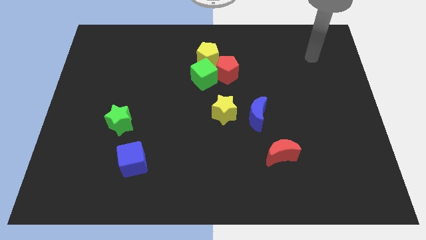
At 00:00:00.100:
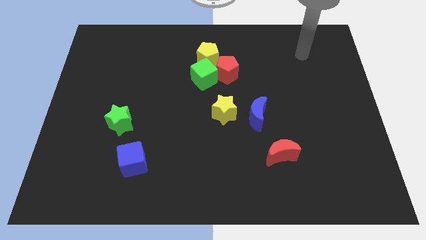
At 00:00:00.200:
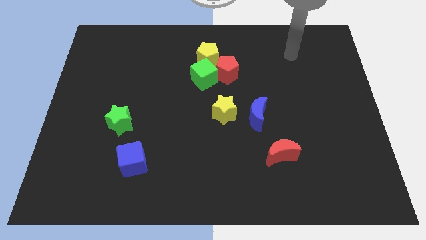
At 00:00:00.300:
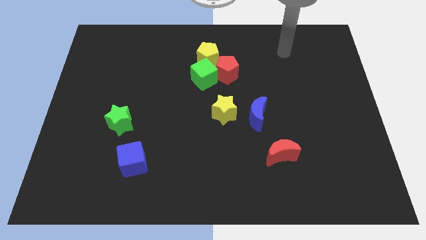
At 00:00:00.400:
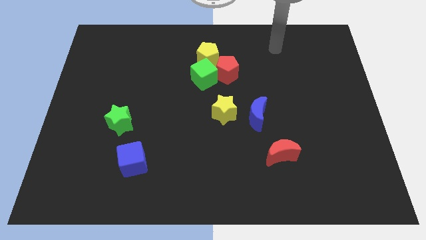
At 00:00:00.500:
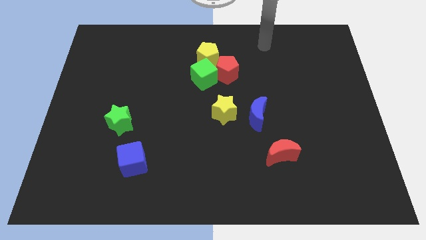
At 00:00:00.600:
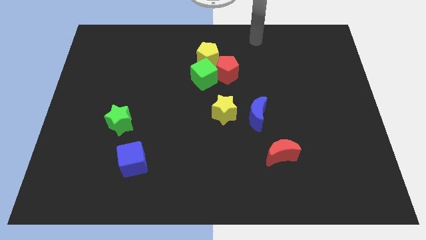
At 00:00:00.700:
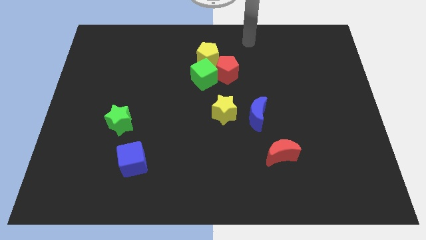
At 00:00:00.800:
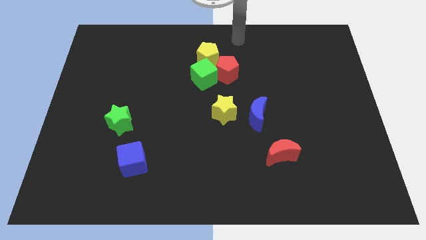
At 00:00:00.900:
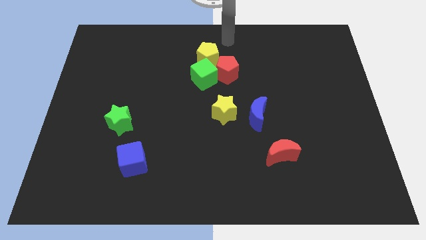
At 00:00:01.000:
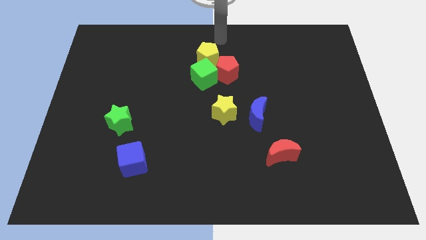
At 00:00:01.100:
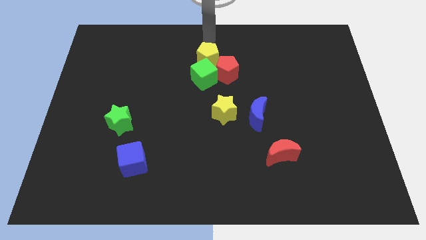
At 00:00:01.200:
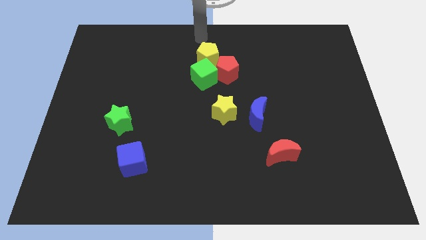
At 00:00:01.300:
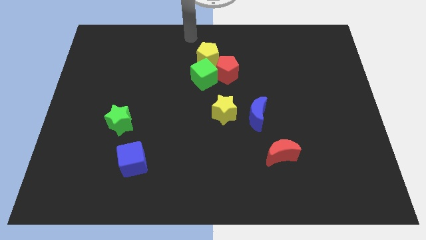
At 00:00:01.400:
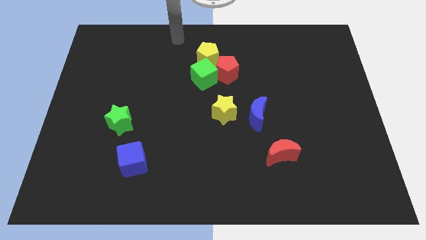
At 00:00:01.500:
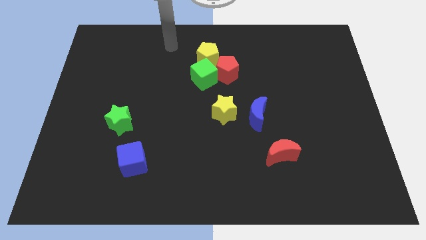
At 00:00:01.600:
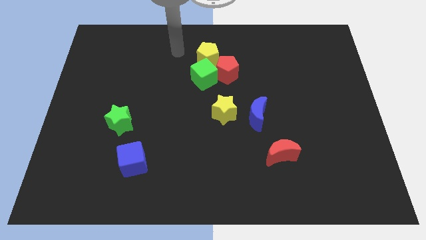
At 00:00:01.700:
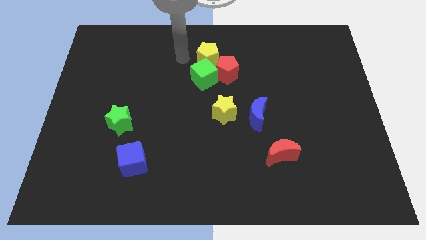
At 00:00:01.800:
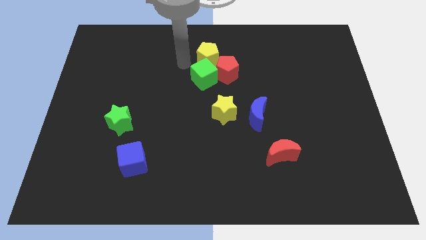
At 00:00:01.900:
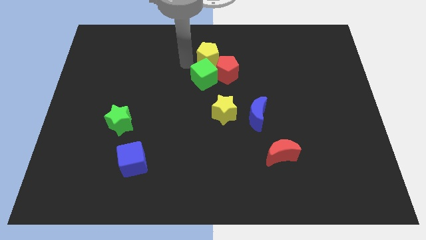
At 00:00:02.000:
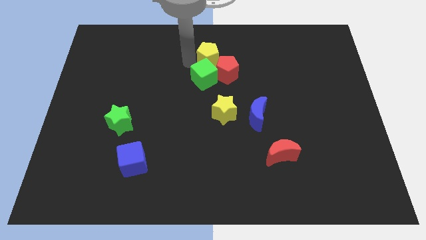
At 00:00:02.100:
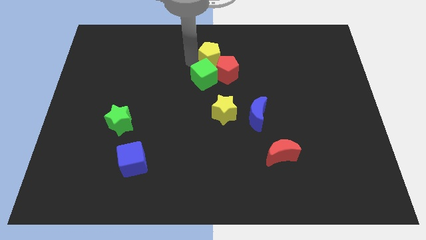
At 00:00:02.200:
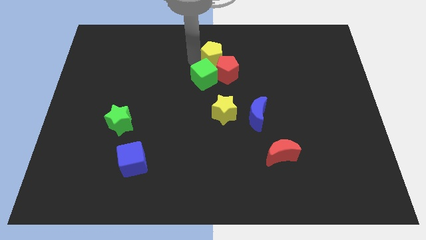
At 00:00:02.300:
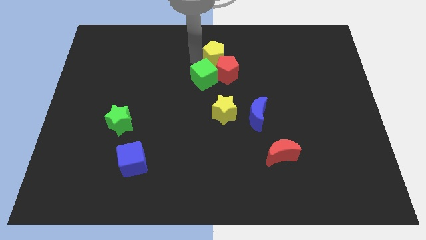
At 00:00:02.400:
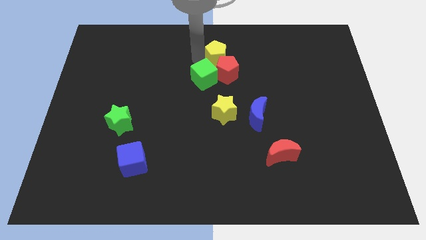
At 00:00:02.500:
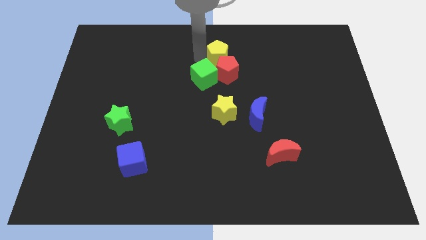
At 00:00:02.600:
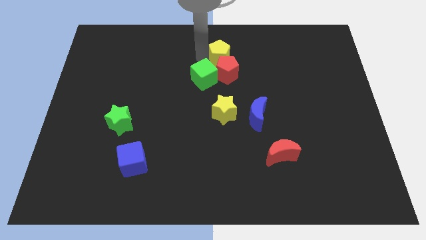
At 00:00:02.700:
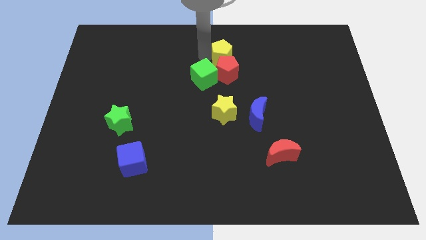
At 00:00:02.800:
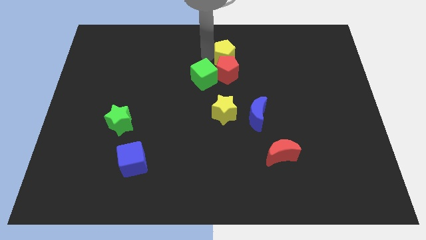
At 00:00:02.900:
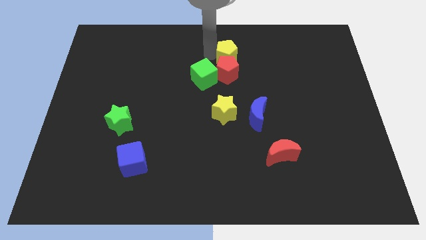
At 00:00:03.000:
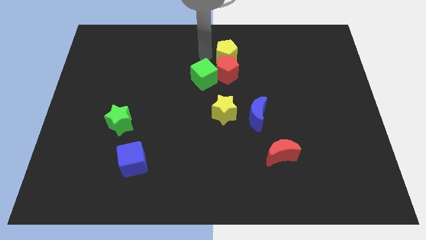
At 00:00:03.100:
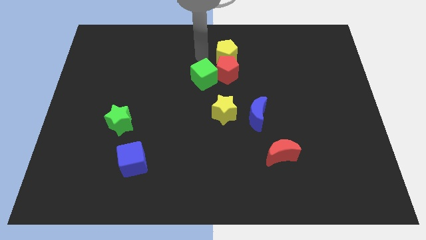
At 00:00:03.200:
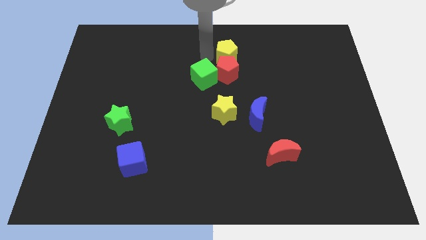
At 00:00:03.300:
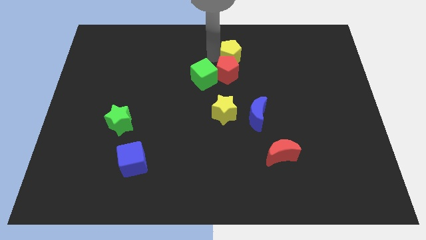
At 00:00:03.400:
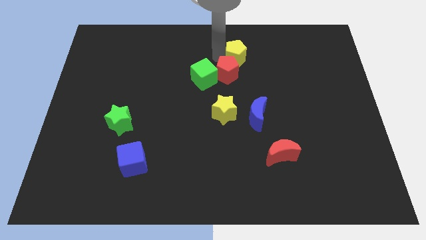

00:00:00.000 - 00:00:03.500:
slide the yellow pentagon a bit right

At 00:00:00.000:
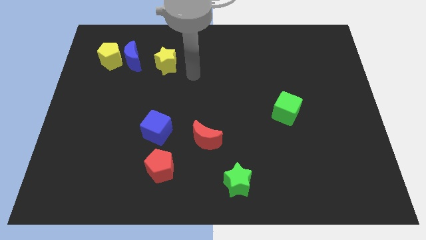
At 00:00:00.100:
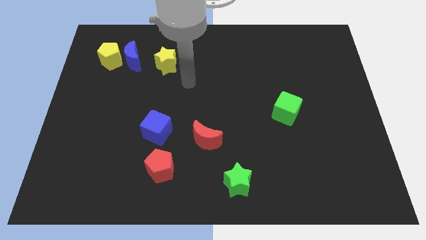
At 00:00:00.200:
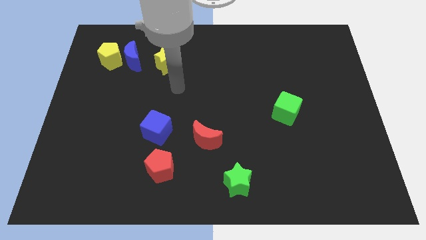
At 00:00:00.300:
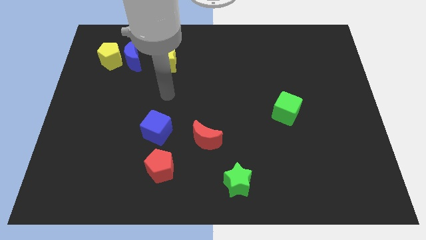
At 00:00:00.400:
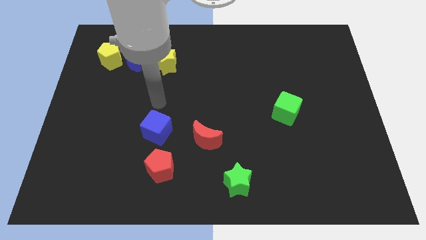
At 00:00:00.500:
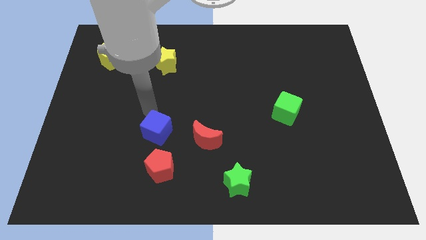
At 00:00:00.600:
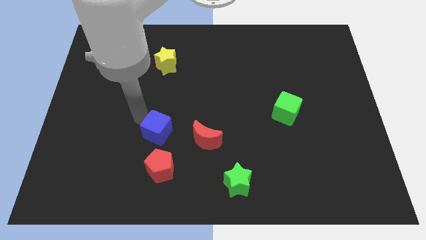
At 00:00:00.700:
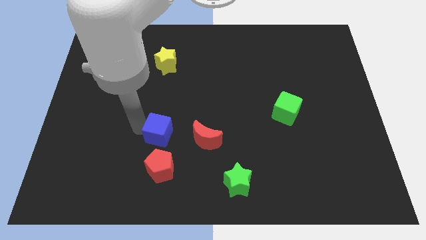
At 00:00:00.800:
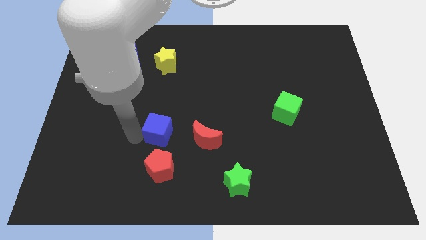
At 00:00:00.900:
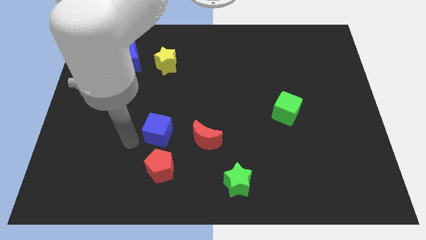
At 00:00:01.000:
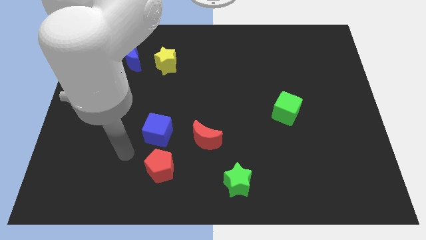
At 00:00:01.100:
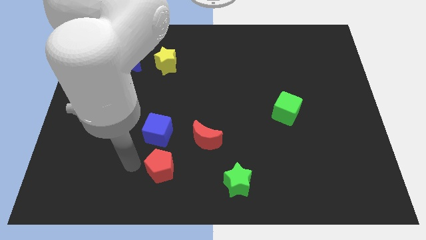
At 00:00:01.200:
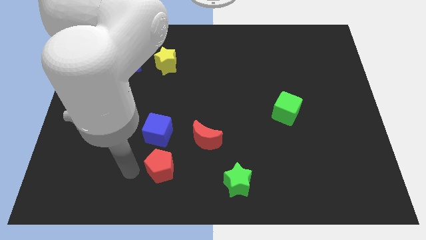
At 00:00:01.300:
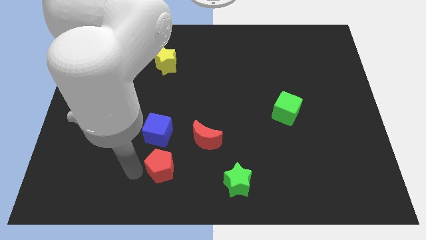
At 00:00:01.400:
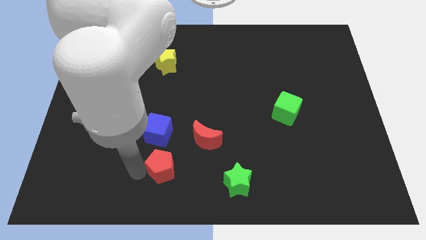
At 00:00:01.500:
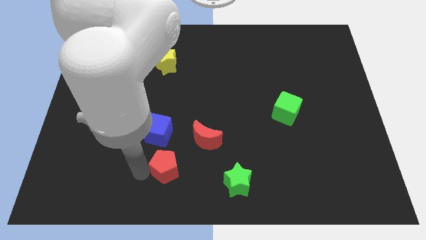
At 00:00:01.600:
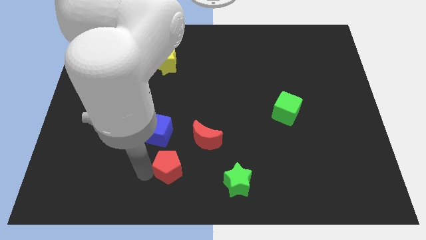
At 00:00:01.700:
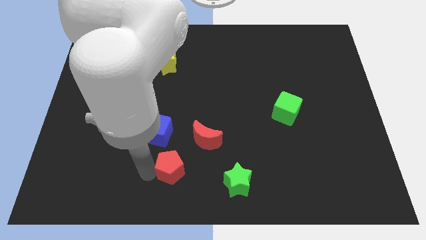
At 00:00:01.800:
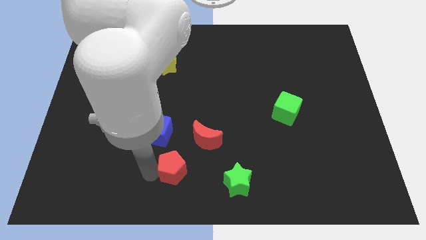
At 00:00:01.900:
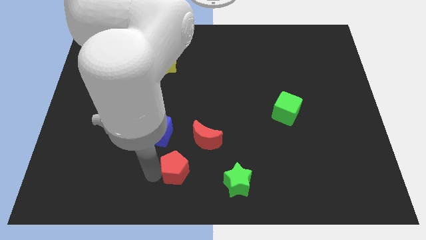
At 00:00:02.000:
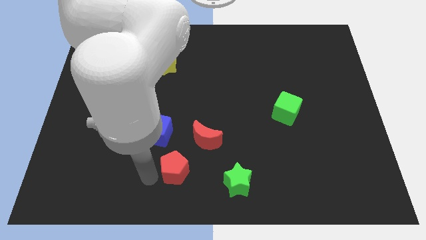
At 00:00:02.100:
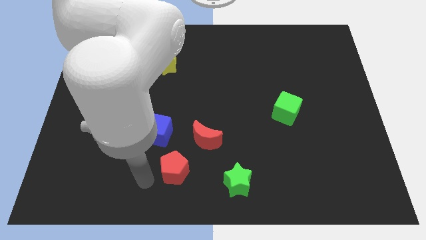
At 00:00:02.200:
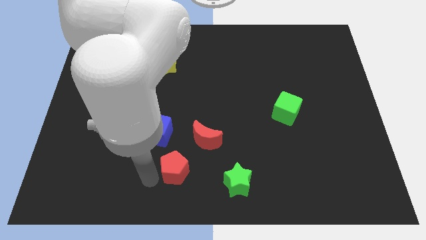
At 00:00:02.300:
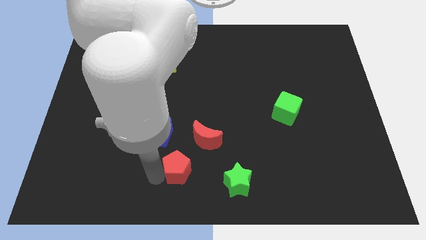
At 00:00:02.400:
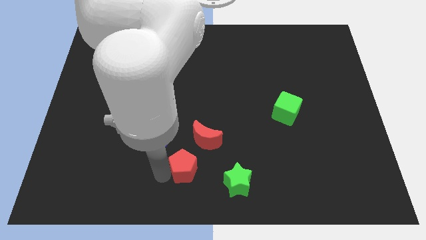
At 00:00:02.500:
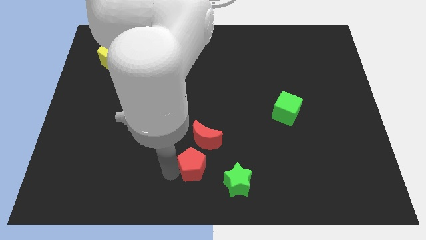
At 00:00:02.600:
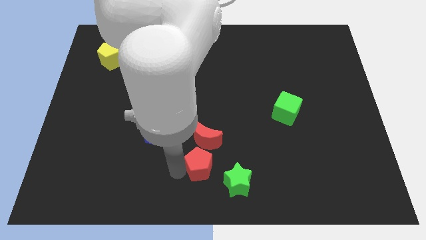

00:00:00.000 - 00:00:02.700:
slightly move the red pentagon to the right

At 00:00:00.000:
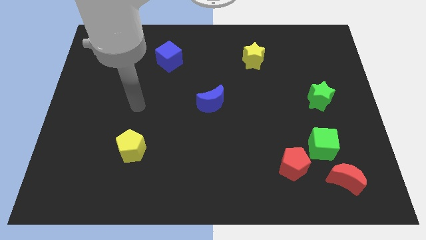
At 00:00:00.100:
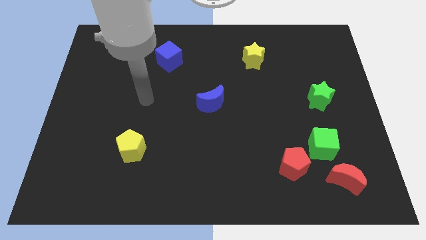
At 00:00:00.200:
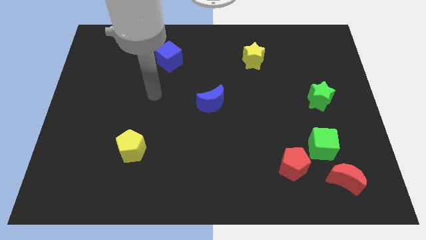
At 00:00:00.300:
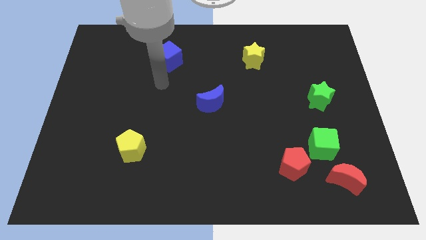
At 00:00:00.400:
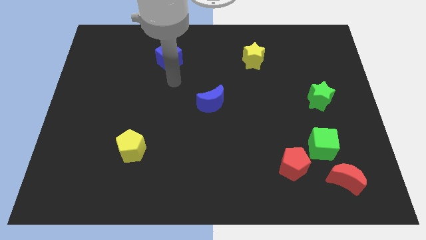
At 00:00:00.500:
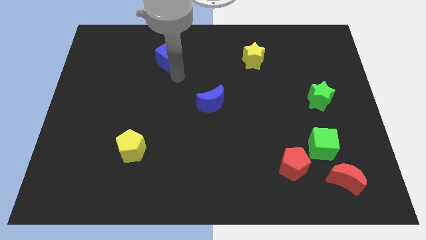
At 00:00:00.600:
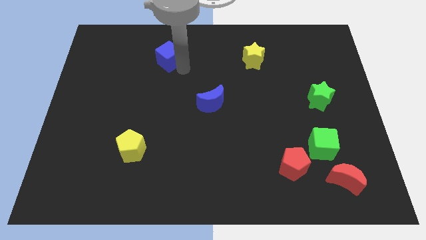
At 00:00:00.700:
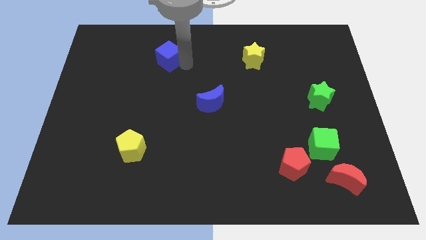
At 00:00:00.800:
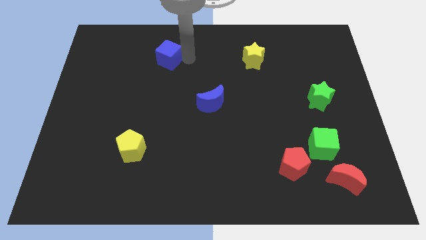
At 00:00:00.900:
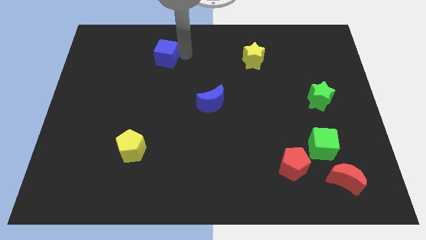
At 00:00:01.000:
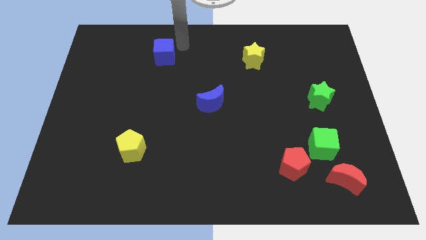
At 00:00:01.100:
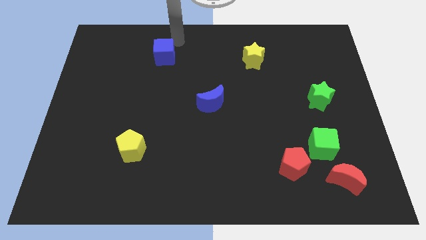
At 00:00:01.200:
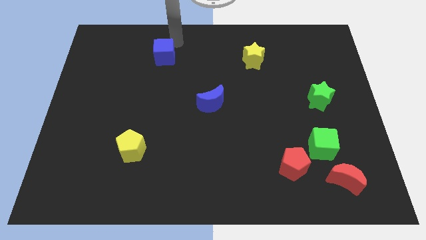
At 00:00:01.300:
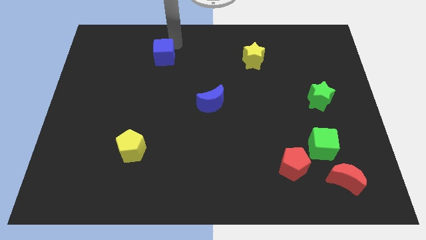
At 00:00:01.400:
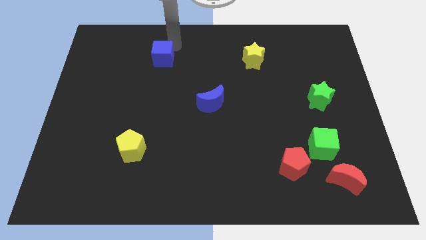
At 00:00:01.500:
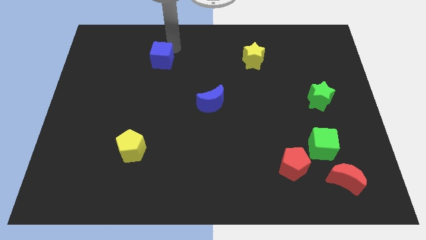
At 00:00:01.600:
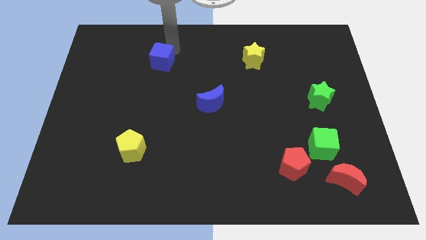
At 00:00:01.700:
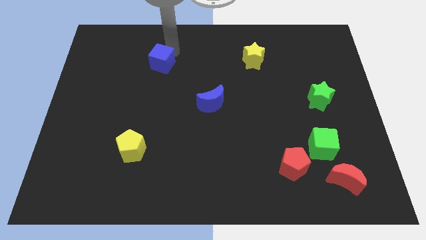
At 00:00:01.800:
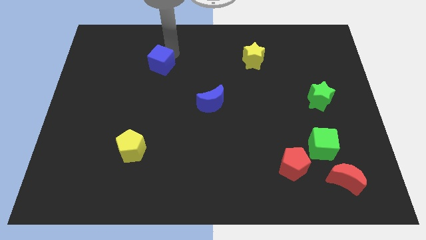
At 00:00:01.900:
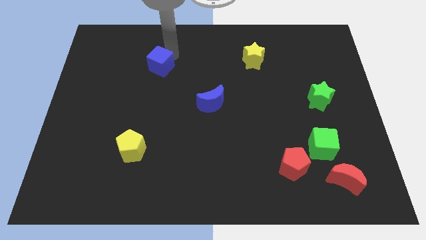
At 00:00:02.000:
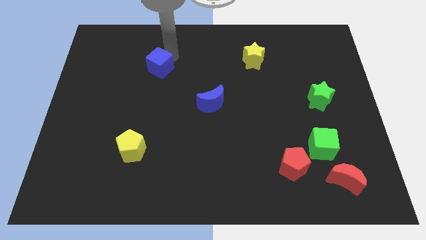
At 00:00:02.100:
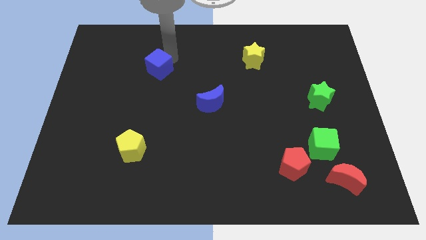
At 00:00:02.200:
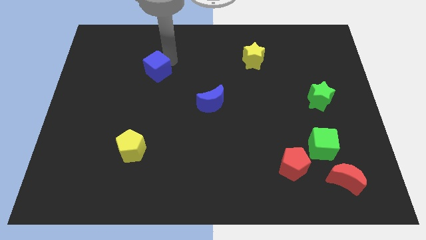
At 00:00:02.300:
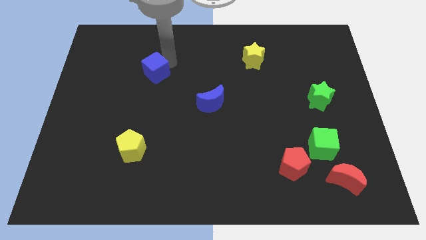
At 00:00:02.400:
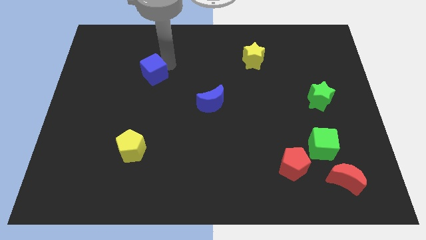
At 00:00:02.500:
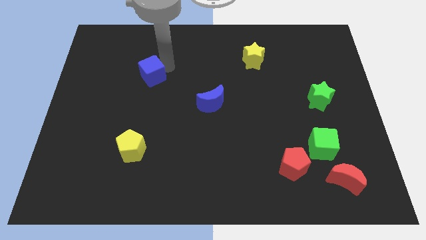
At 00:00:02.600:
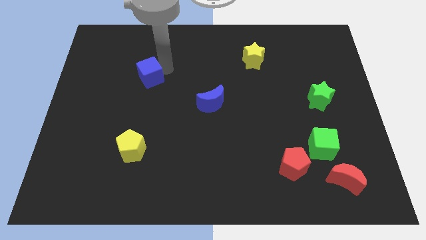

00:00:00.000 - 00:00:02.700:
slide the blue cube downwards and to the left a bit
